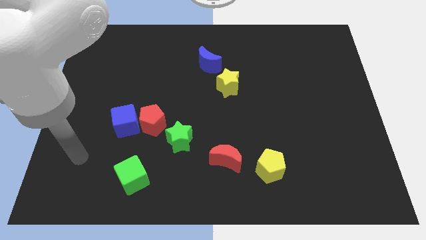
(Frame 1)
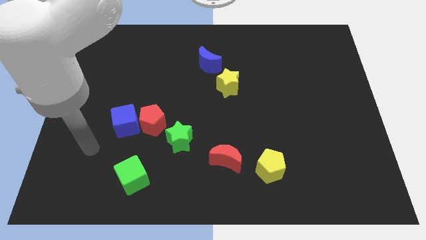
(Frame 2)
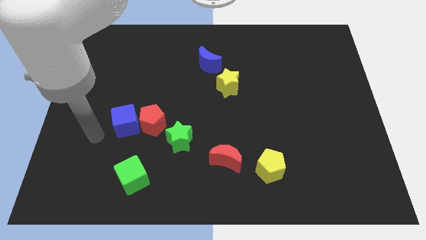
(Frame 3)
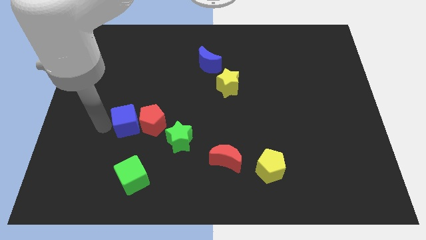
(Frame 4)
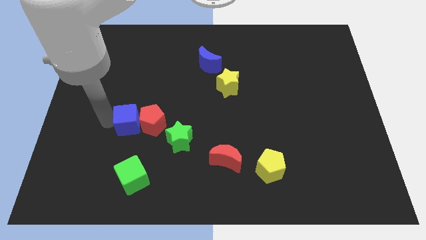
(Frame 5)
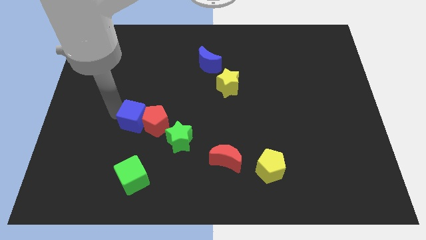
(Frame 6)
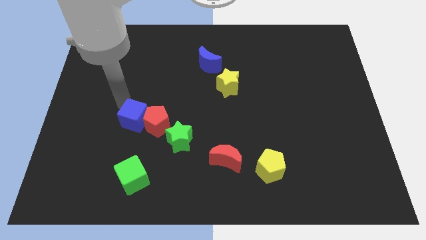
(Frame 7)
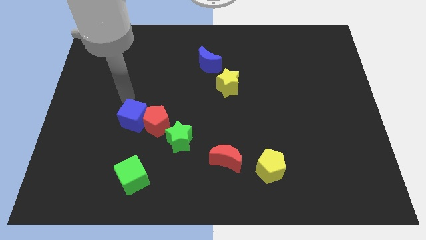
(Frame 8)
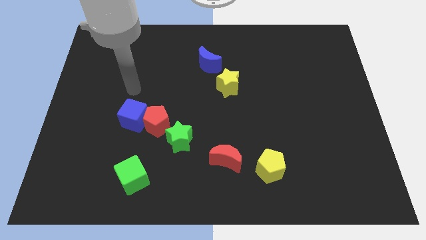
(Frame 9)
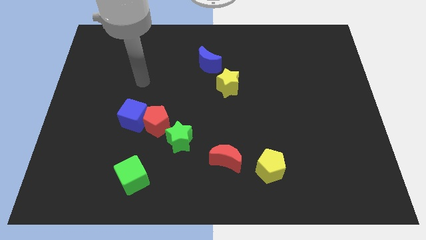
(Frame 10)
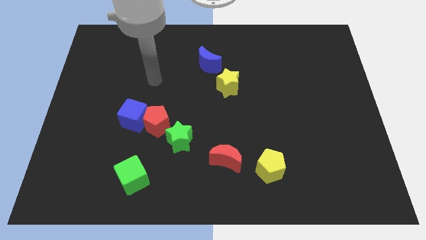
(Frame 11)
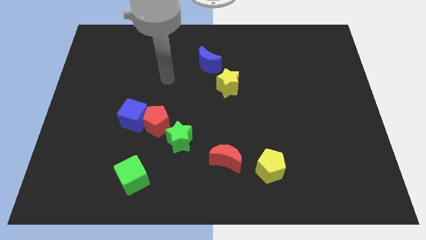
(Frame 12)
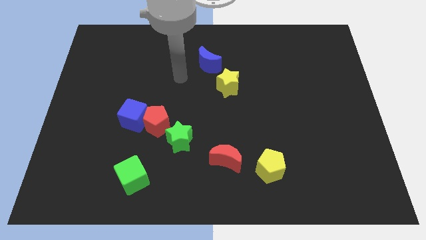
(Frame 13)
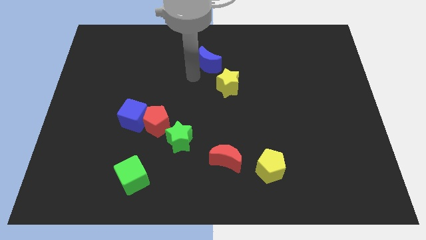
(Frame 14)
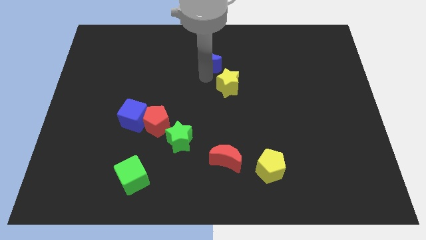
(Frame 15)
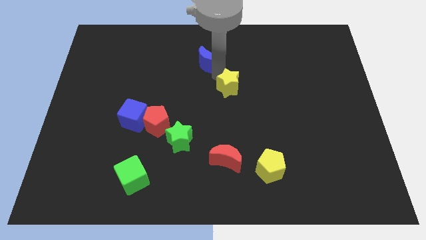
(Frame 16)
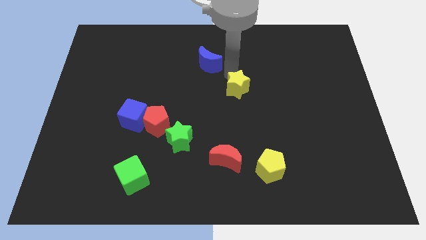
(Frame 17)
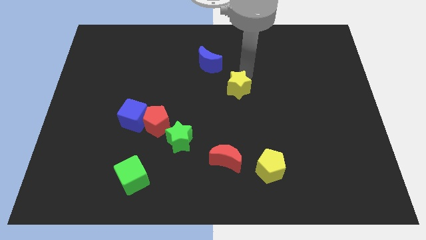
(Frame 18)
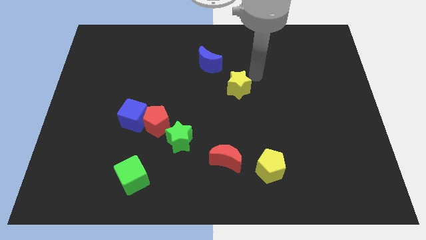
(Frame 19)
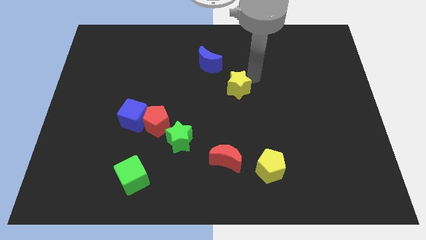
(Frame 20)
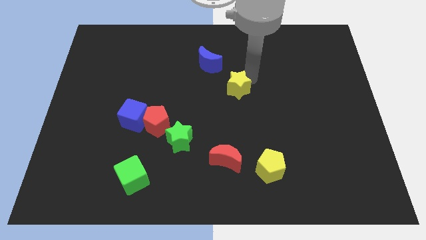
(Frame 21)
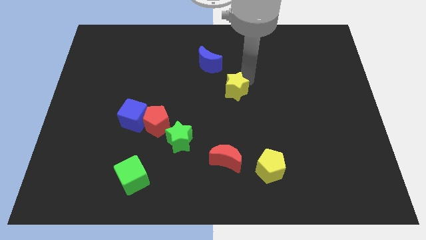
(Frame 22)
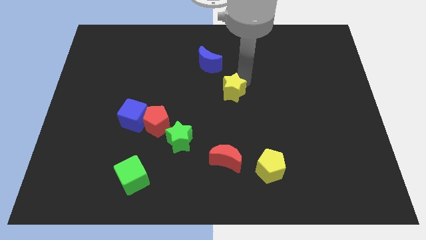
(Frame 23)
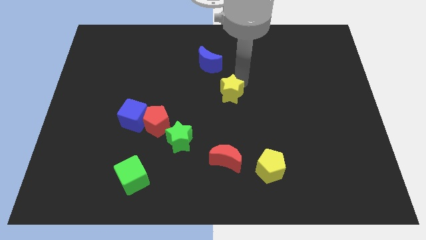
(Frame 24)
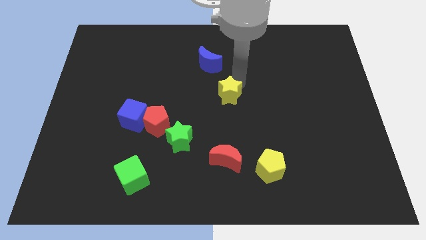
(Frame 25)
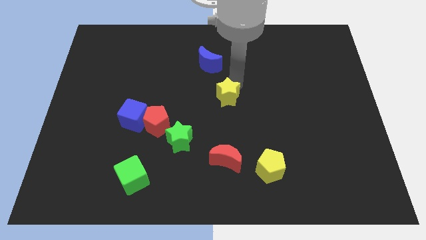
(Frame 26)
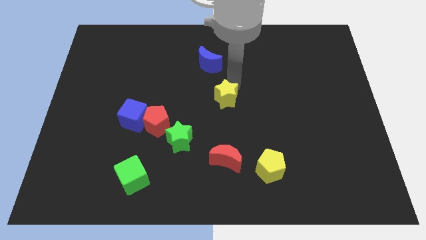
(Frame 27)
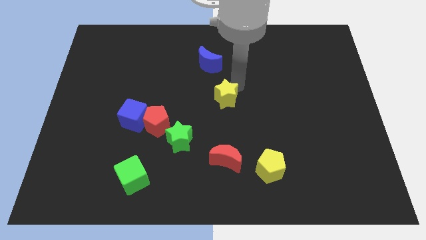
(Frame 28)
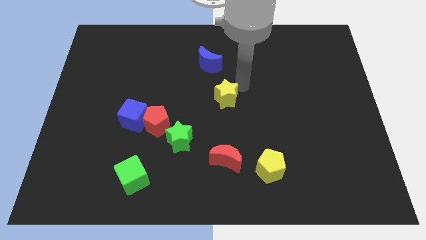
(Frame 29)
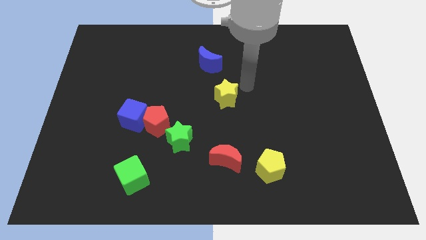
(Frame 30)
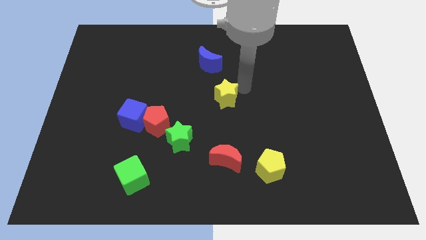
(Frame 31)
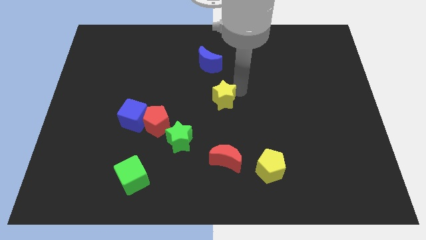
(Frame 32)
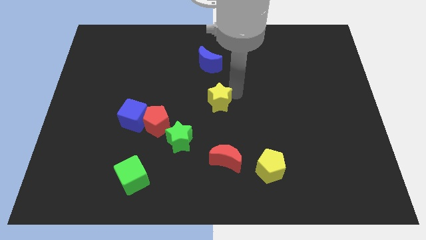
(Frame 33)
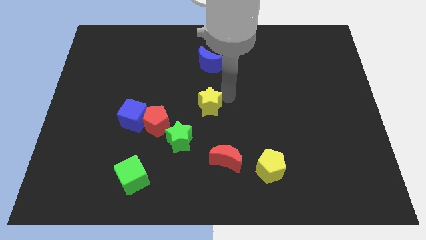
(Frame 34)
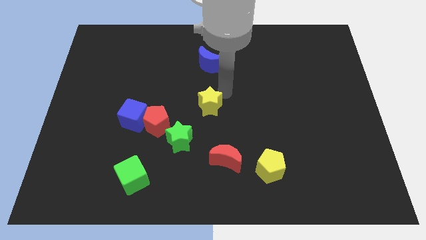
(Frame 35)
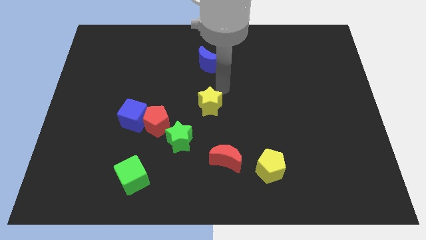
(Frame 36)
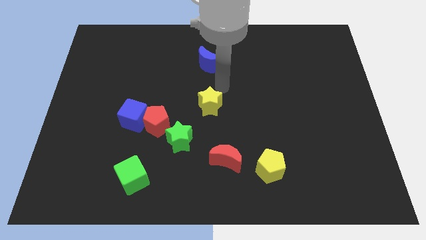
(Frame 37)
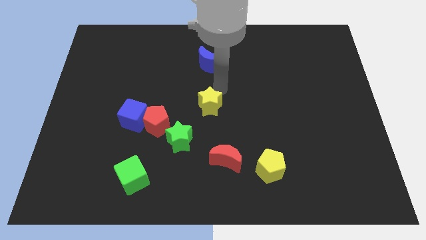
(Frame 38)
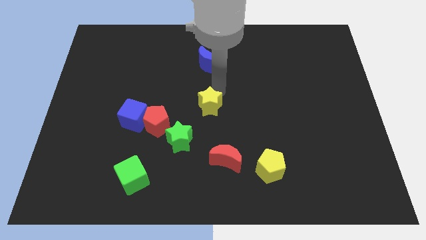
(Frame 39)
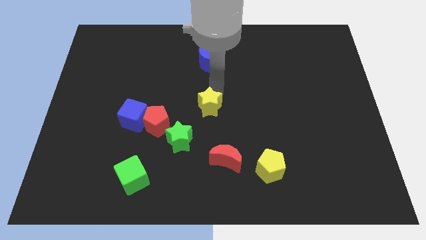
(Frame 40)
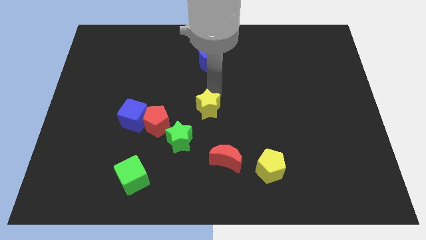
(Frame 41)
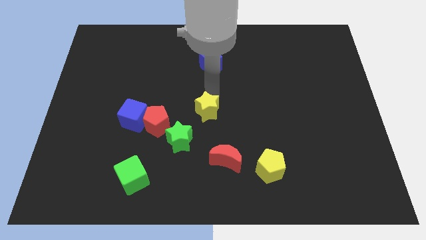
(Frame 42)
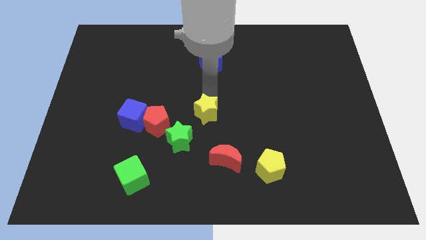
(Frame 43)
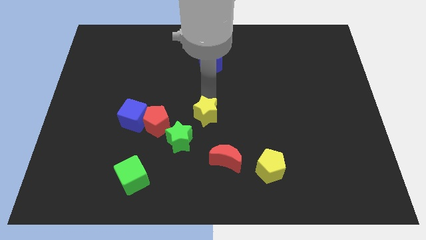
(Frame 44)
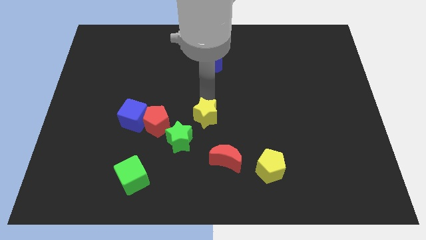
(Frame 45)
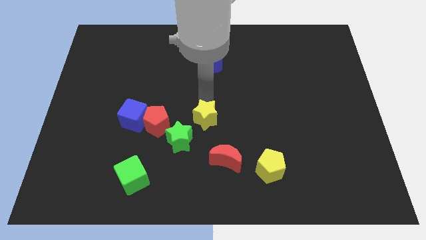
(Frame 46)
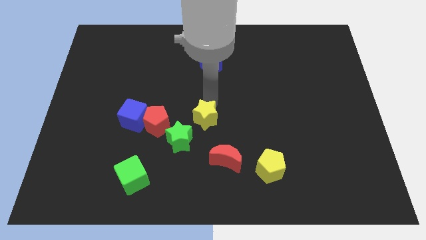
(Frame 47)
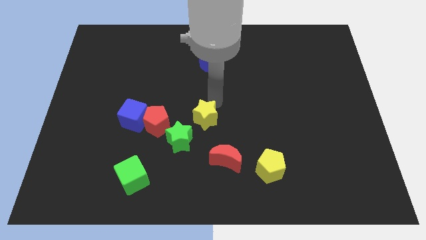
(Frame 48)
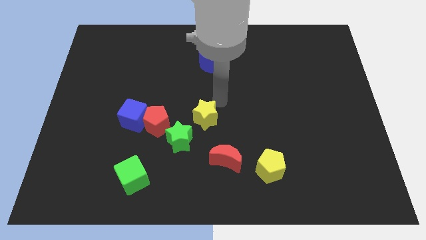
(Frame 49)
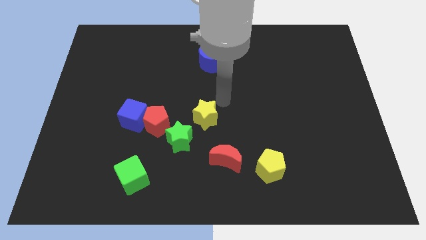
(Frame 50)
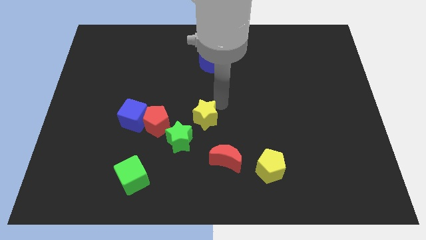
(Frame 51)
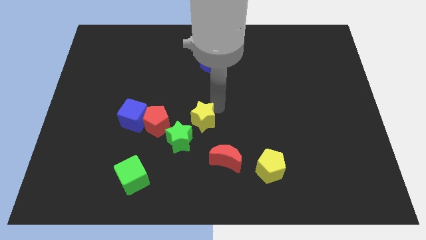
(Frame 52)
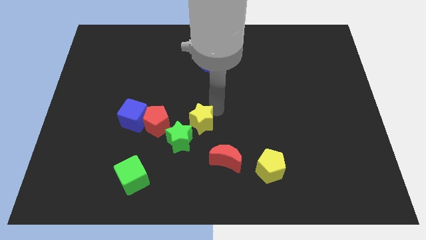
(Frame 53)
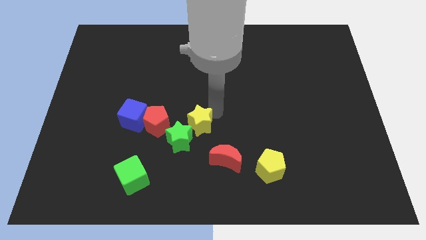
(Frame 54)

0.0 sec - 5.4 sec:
push the yellow star next to the green star

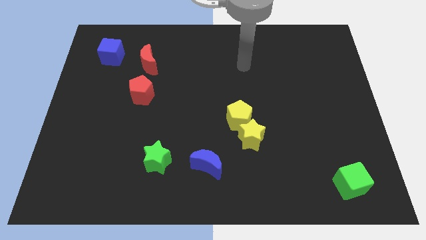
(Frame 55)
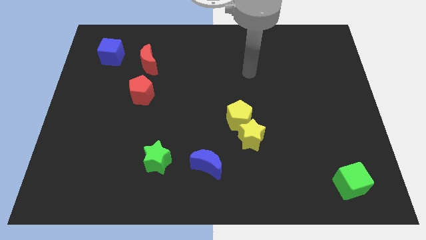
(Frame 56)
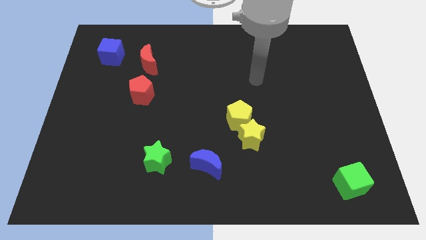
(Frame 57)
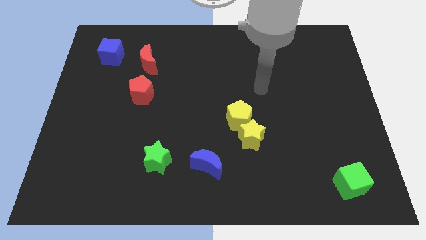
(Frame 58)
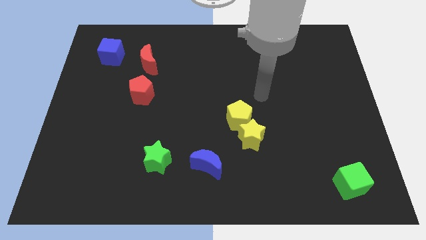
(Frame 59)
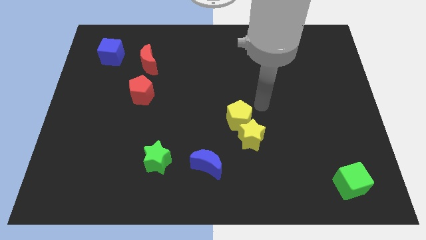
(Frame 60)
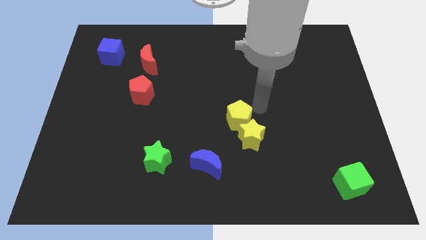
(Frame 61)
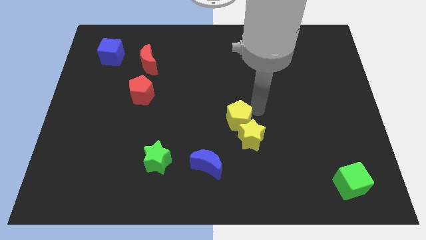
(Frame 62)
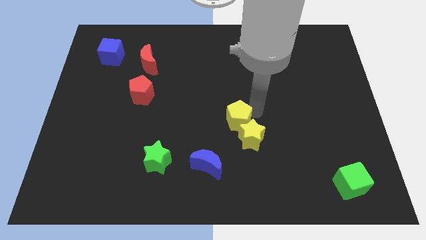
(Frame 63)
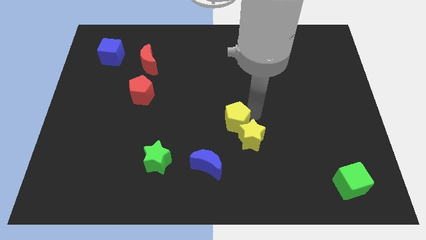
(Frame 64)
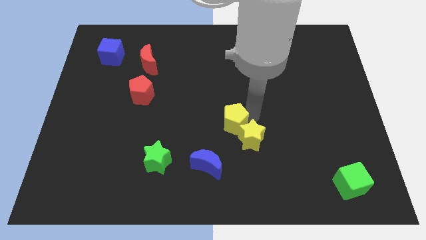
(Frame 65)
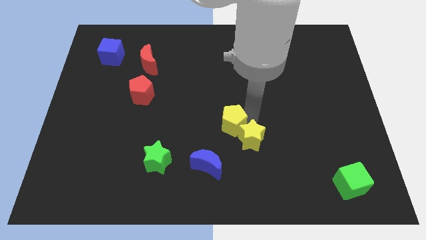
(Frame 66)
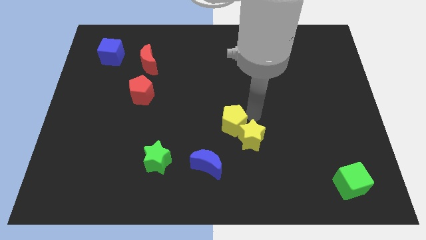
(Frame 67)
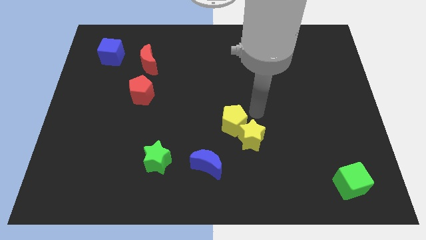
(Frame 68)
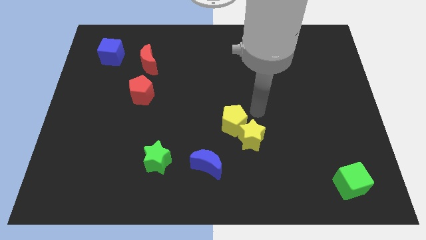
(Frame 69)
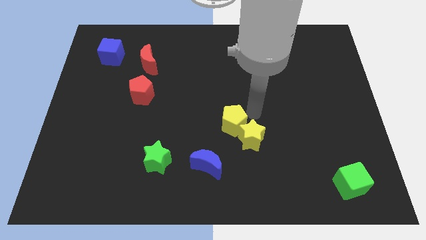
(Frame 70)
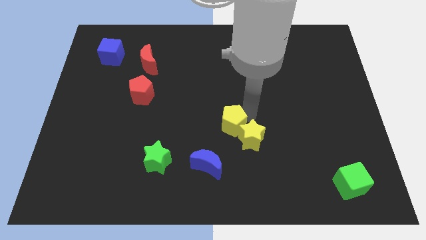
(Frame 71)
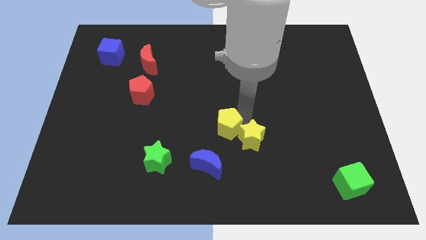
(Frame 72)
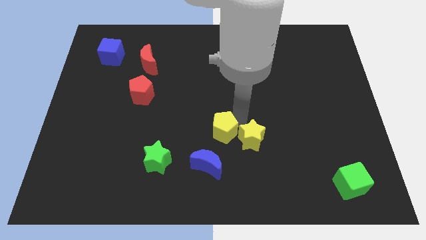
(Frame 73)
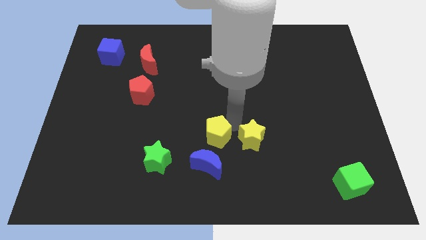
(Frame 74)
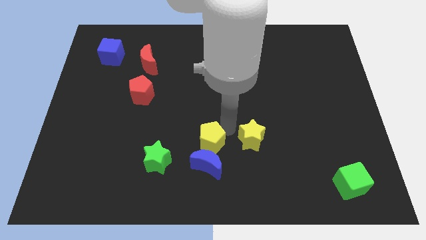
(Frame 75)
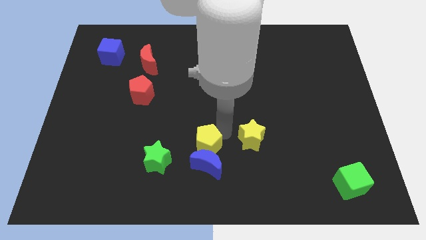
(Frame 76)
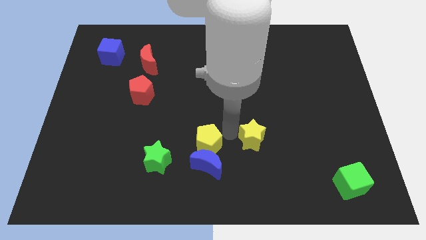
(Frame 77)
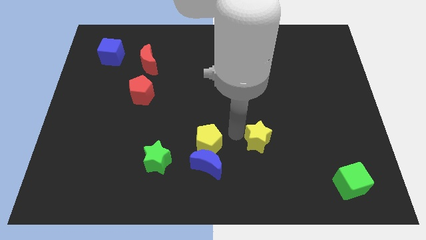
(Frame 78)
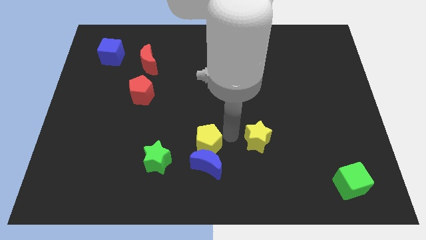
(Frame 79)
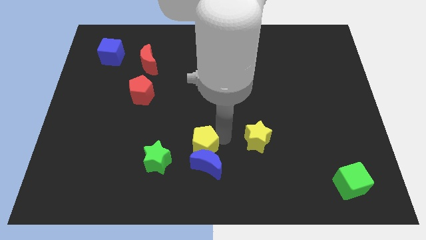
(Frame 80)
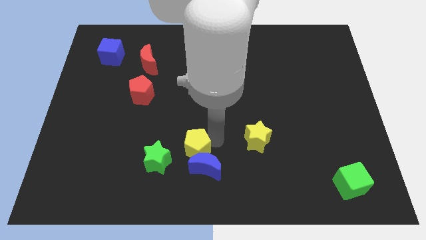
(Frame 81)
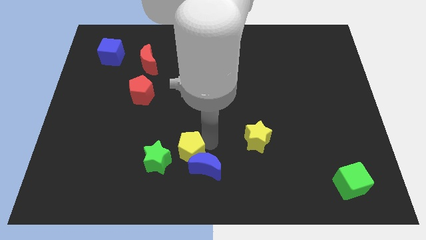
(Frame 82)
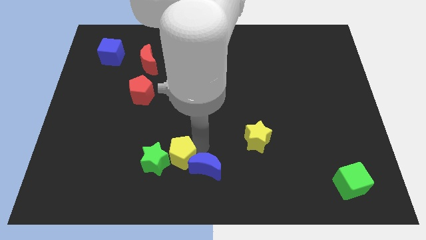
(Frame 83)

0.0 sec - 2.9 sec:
move the yellow pentagon towards the green star
